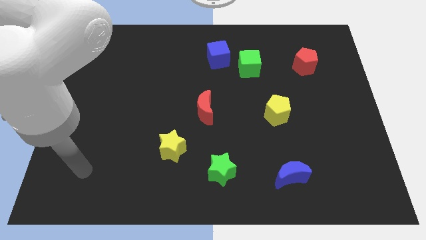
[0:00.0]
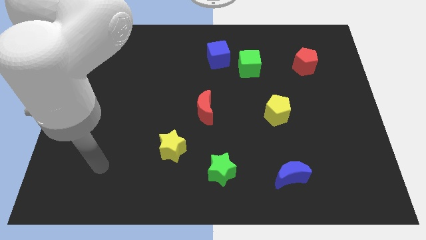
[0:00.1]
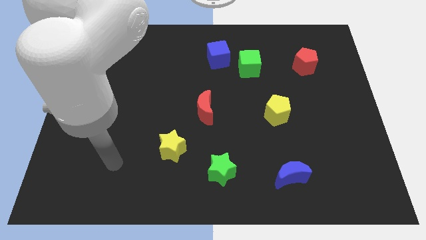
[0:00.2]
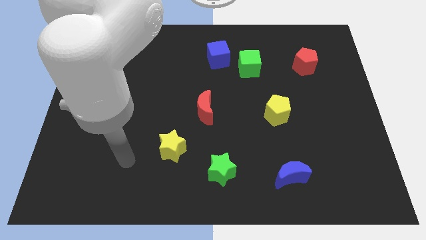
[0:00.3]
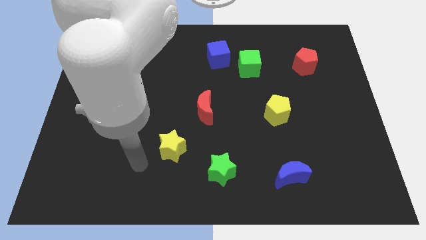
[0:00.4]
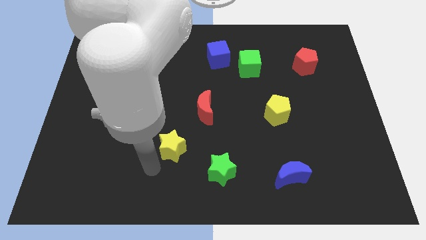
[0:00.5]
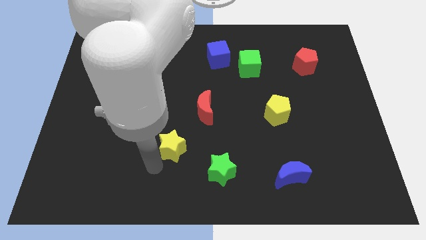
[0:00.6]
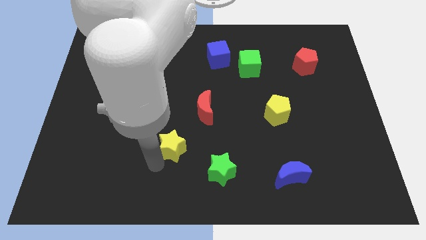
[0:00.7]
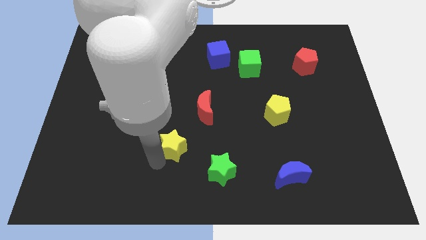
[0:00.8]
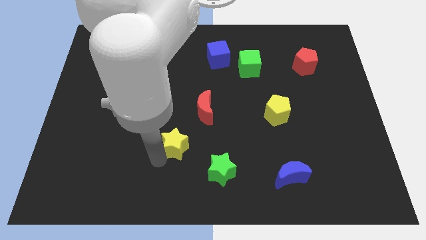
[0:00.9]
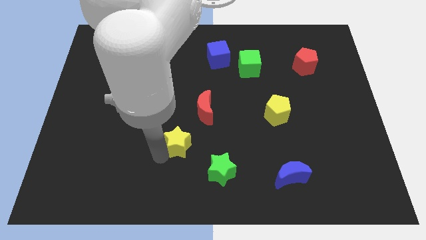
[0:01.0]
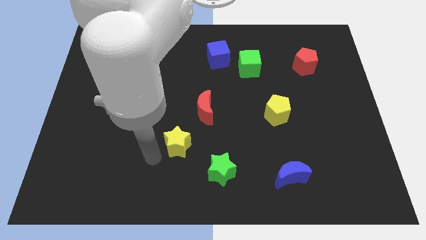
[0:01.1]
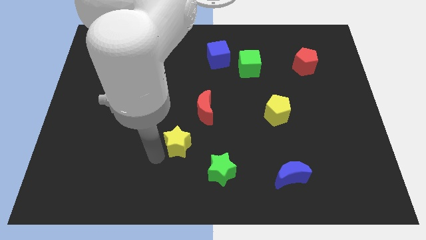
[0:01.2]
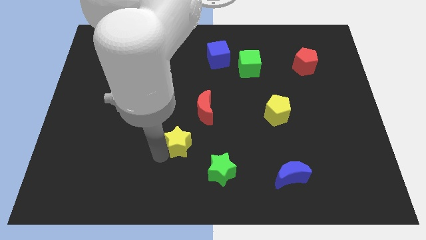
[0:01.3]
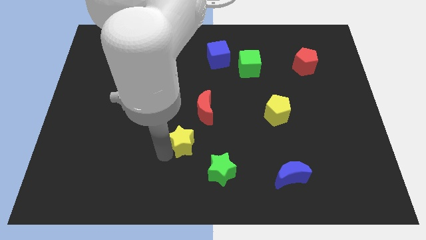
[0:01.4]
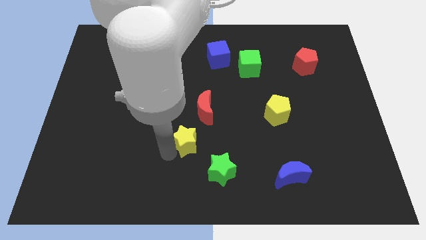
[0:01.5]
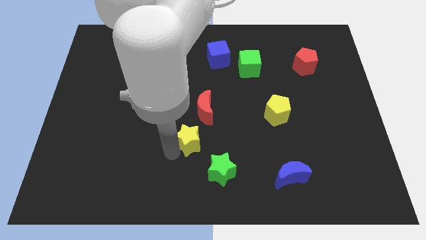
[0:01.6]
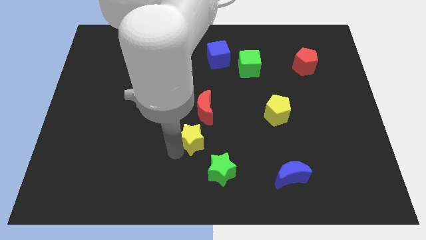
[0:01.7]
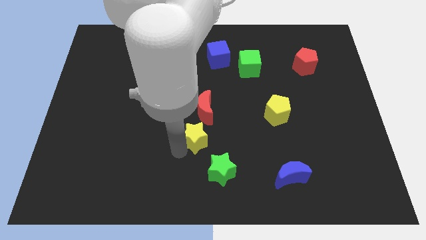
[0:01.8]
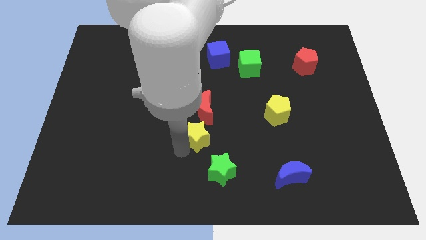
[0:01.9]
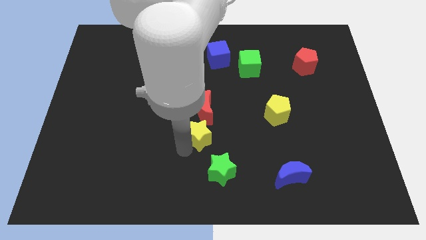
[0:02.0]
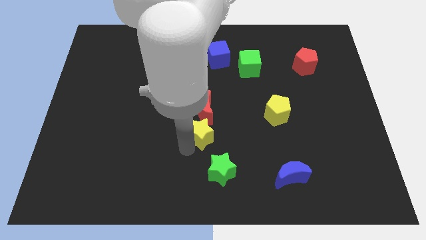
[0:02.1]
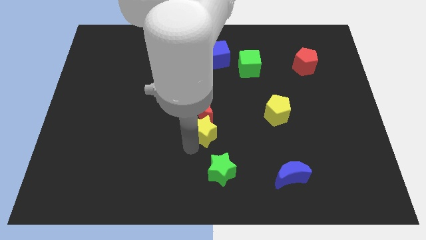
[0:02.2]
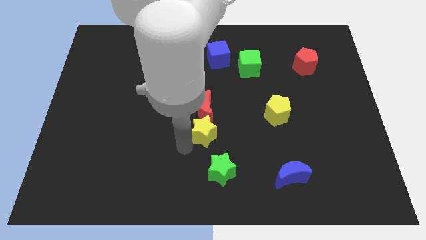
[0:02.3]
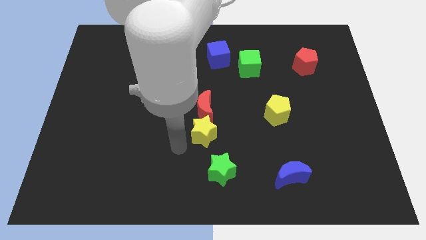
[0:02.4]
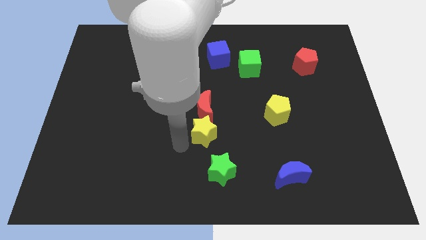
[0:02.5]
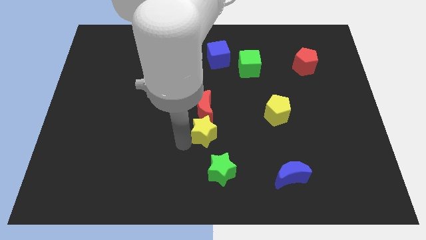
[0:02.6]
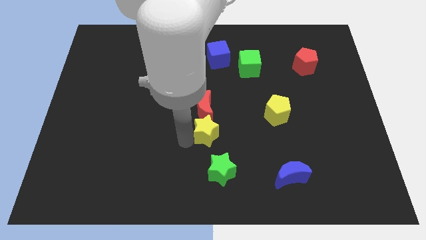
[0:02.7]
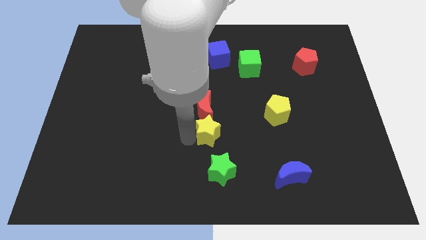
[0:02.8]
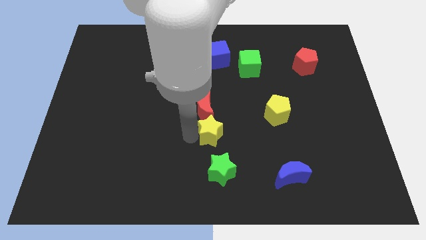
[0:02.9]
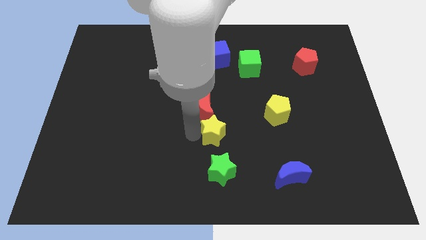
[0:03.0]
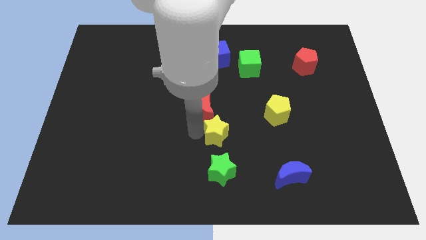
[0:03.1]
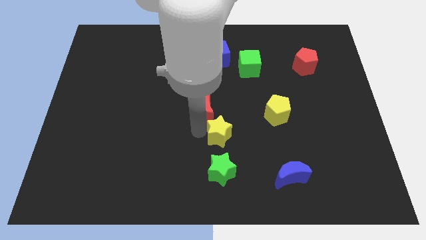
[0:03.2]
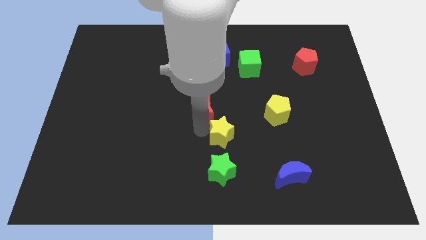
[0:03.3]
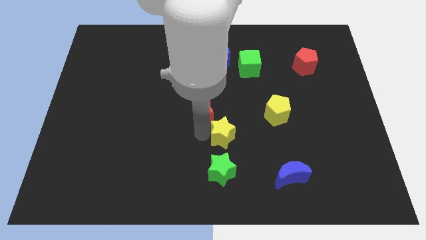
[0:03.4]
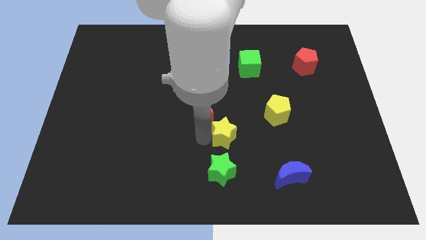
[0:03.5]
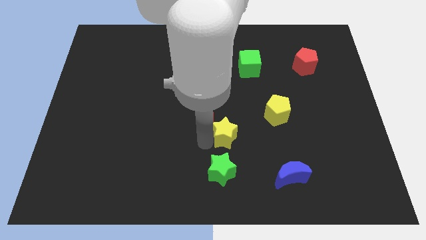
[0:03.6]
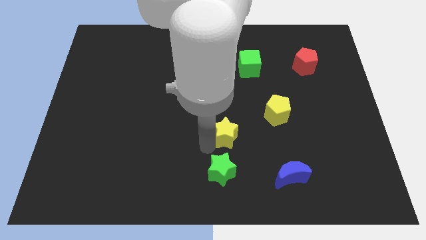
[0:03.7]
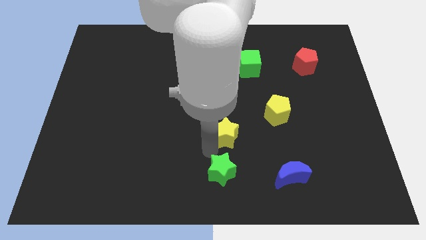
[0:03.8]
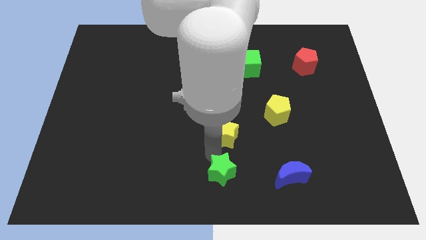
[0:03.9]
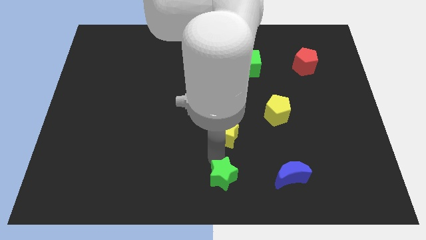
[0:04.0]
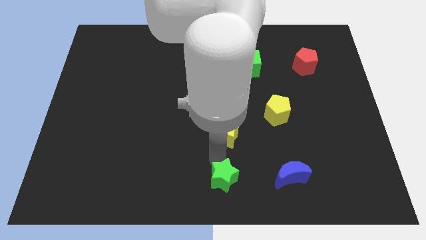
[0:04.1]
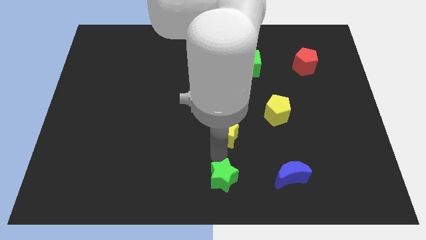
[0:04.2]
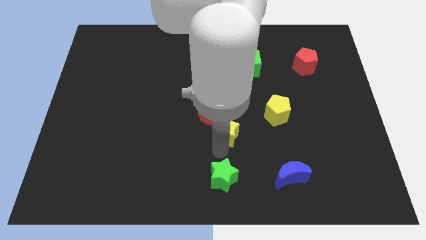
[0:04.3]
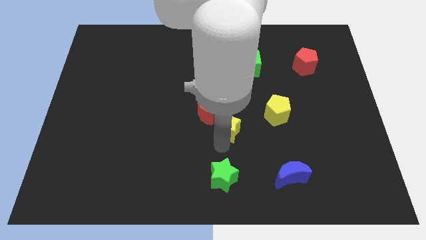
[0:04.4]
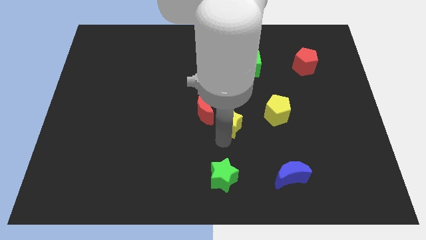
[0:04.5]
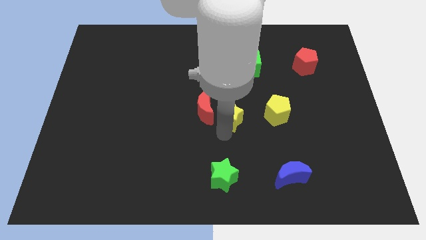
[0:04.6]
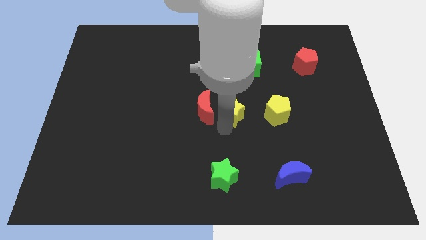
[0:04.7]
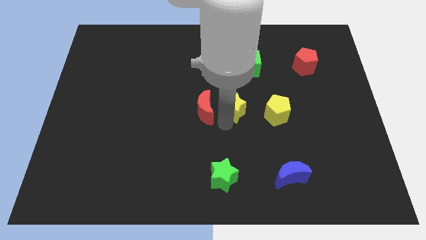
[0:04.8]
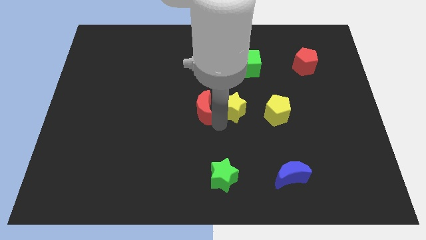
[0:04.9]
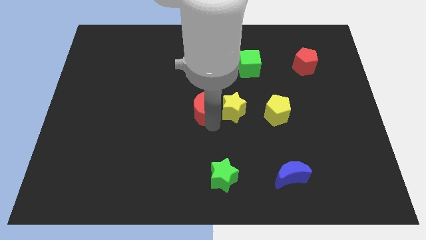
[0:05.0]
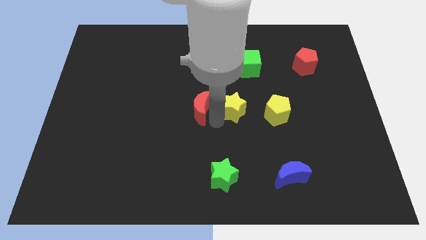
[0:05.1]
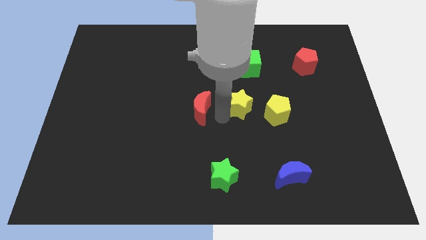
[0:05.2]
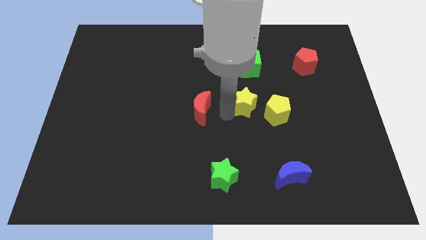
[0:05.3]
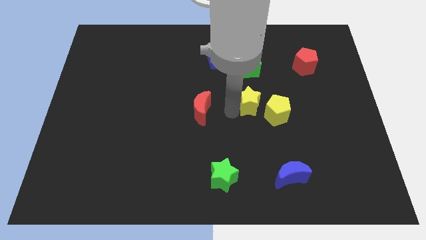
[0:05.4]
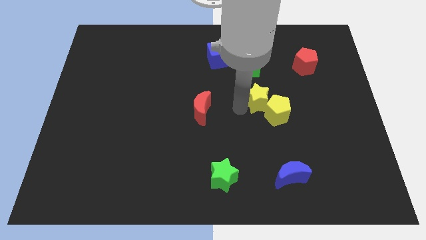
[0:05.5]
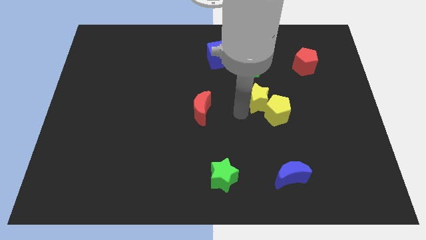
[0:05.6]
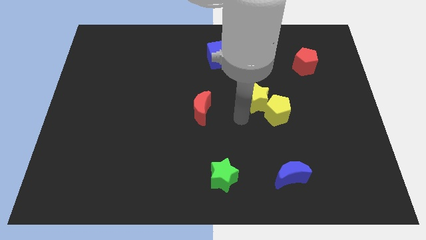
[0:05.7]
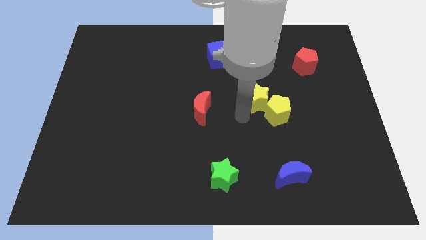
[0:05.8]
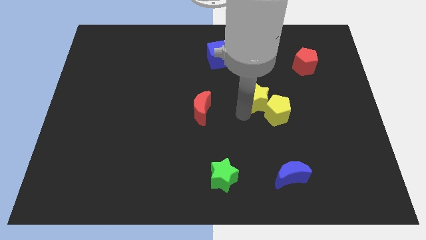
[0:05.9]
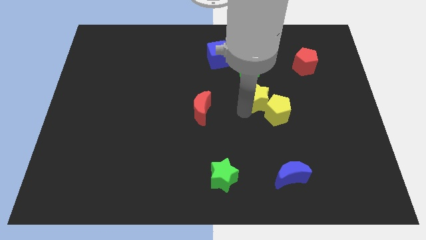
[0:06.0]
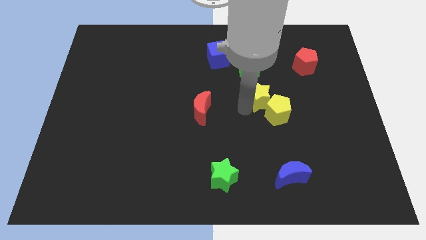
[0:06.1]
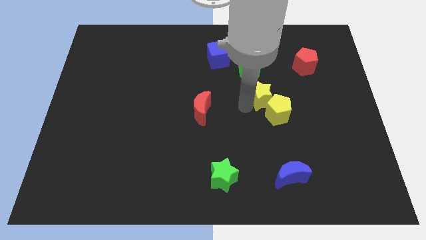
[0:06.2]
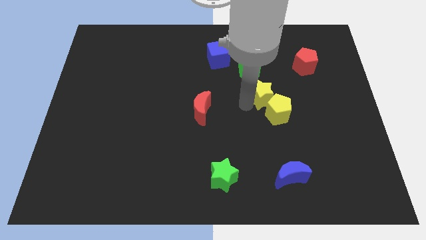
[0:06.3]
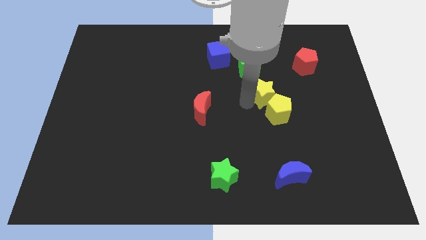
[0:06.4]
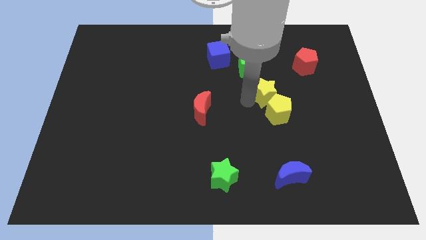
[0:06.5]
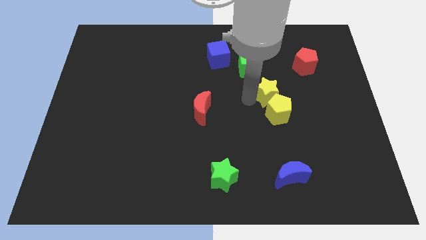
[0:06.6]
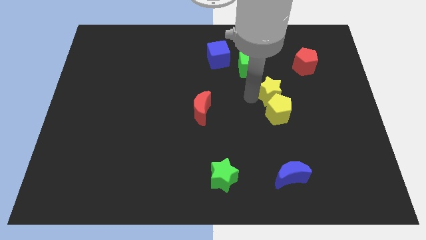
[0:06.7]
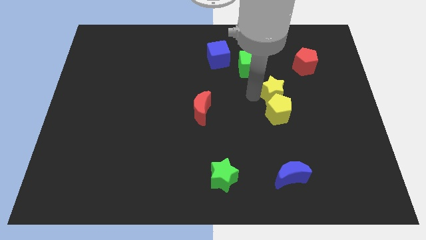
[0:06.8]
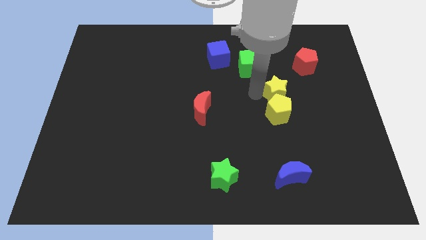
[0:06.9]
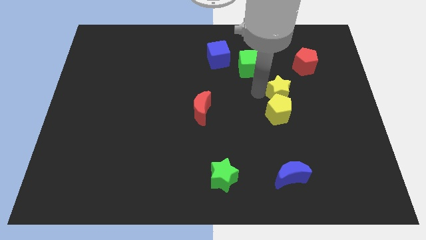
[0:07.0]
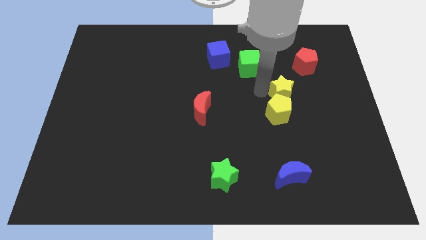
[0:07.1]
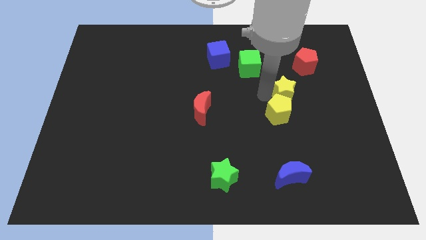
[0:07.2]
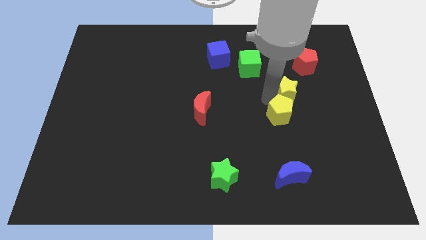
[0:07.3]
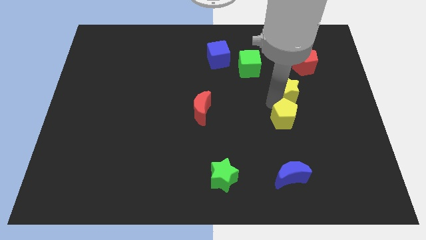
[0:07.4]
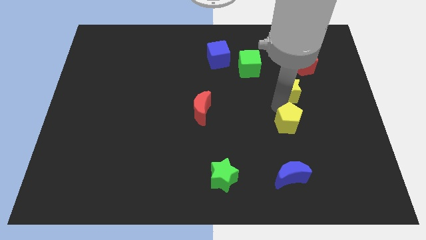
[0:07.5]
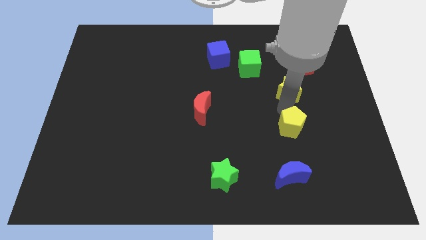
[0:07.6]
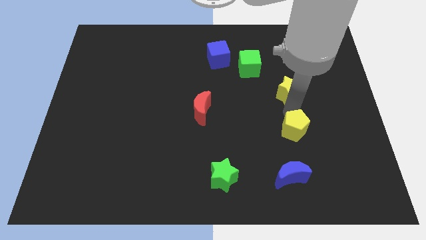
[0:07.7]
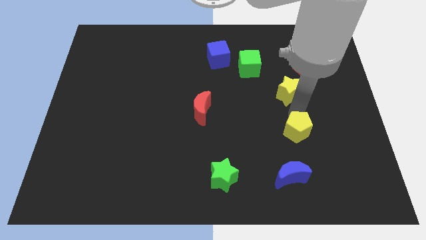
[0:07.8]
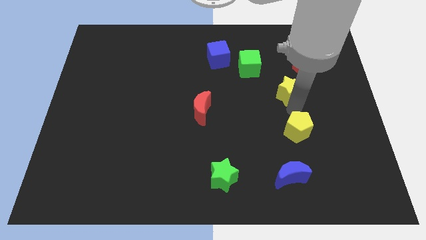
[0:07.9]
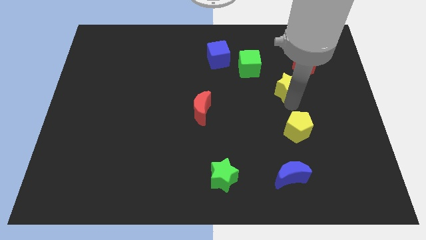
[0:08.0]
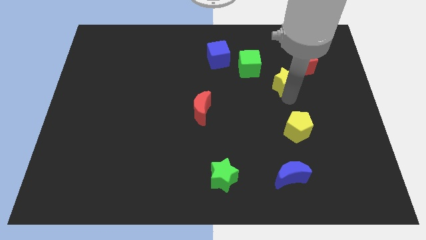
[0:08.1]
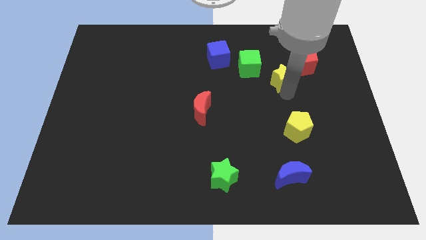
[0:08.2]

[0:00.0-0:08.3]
put the yellow star to the right side of the green cube
